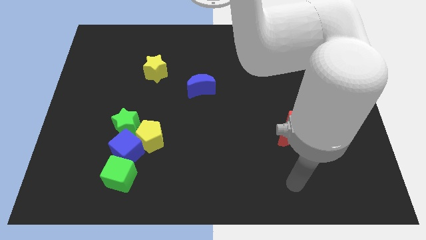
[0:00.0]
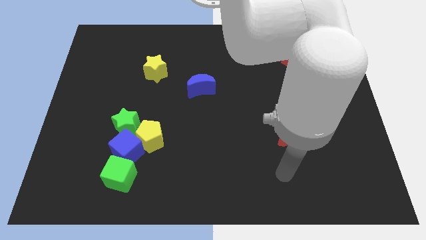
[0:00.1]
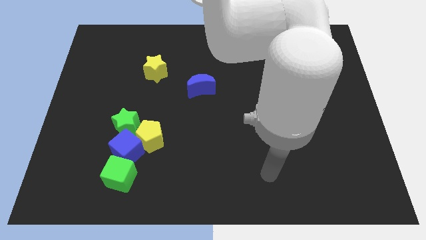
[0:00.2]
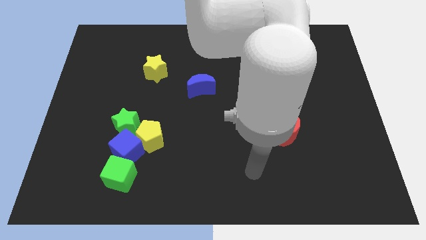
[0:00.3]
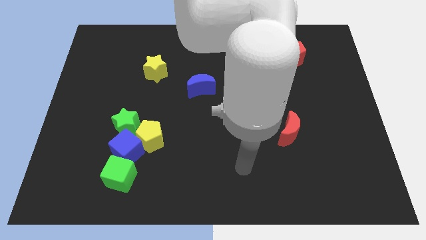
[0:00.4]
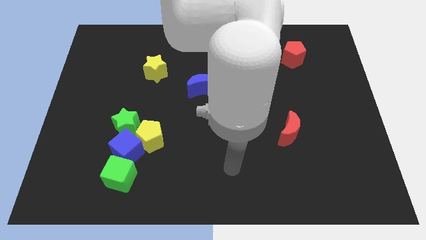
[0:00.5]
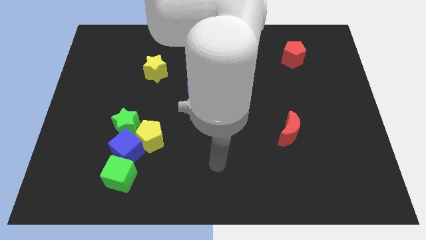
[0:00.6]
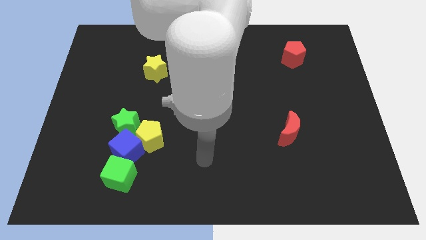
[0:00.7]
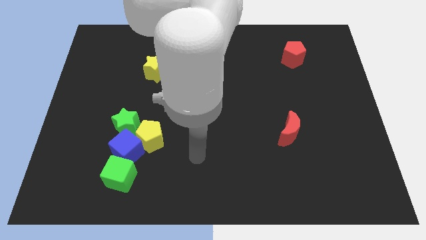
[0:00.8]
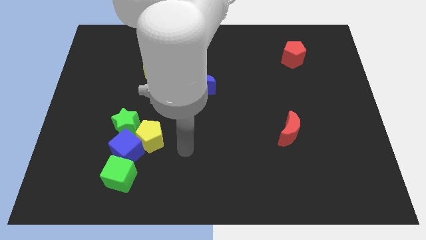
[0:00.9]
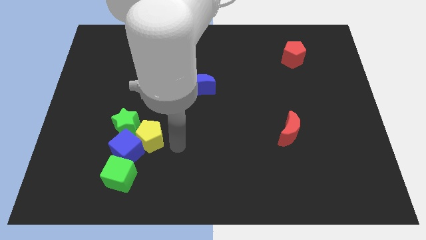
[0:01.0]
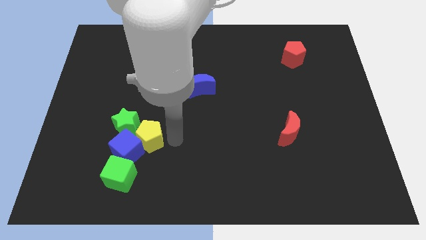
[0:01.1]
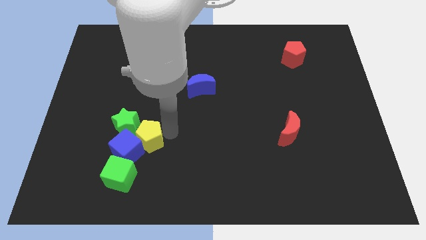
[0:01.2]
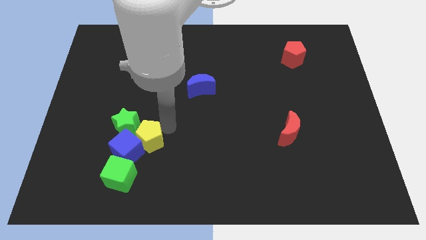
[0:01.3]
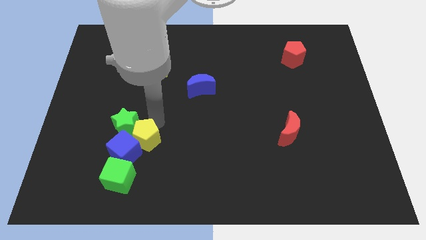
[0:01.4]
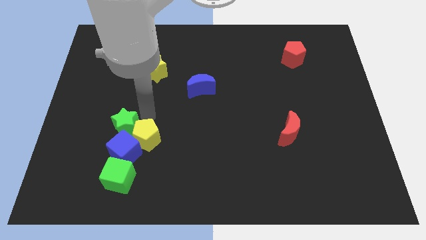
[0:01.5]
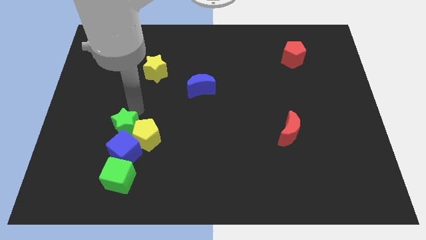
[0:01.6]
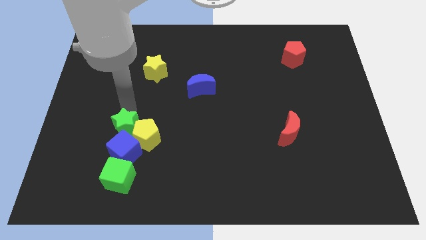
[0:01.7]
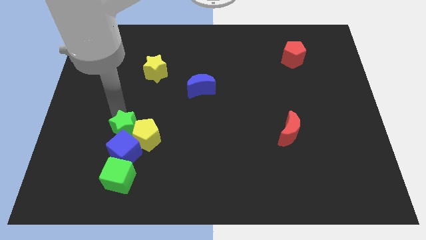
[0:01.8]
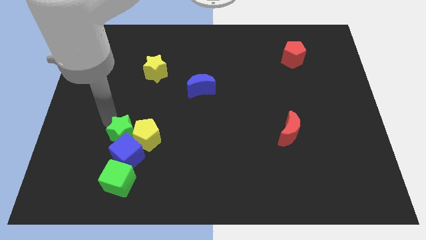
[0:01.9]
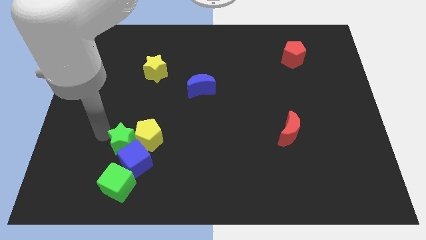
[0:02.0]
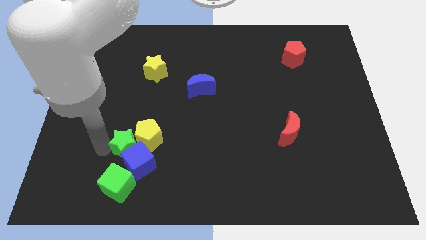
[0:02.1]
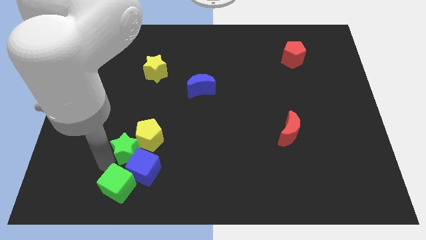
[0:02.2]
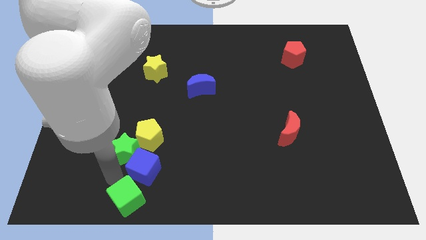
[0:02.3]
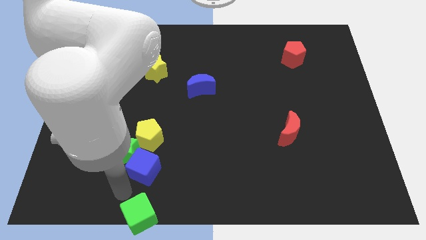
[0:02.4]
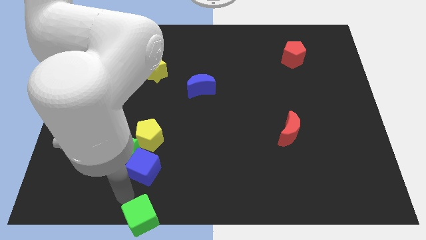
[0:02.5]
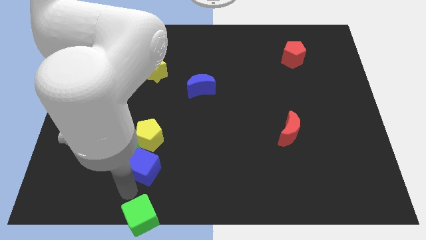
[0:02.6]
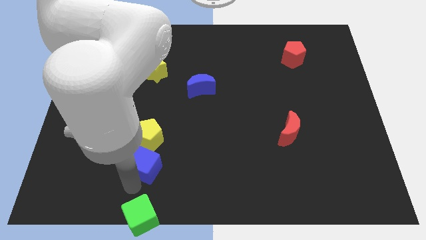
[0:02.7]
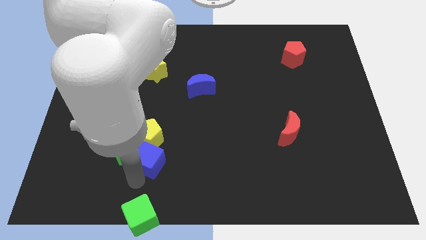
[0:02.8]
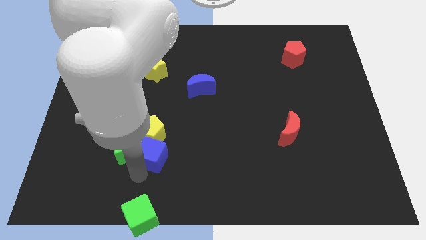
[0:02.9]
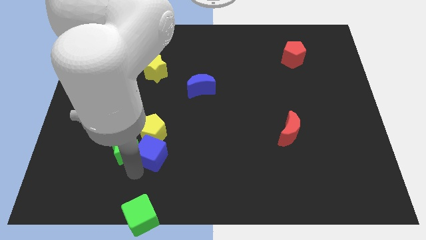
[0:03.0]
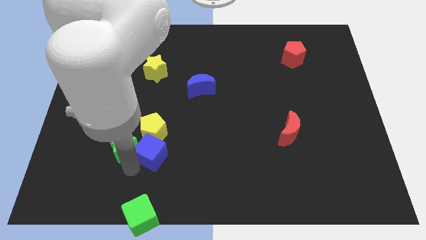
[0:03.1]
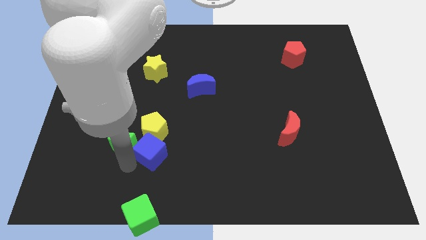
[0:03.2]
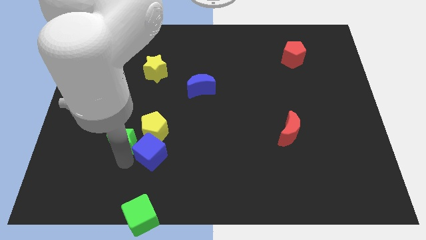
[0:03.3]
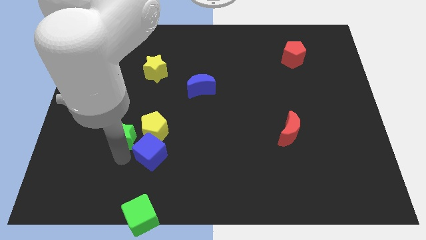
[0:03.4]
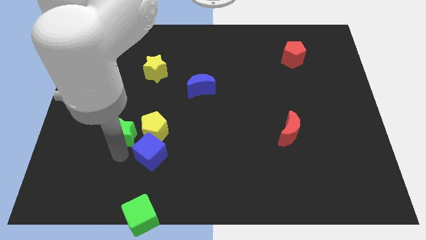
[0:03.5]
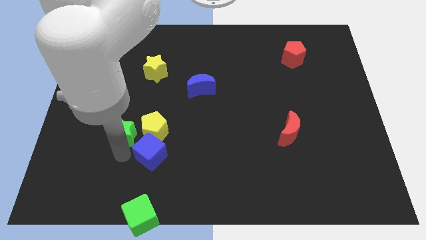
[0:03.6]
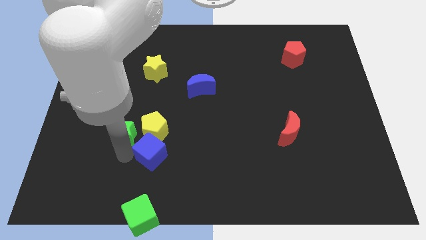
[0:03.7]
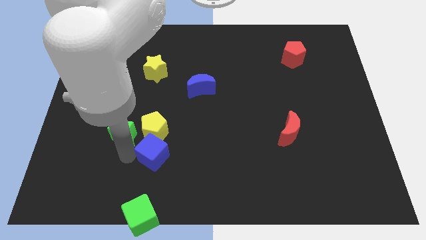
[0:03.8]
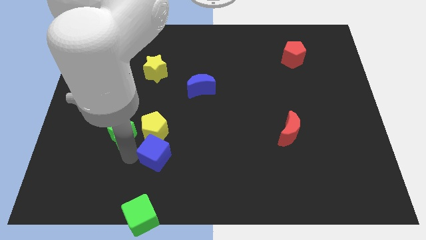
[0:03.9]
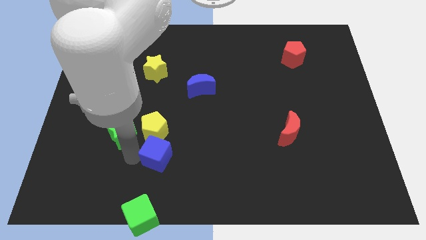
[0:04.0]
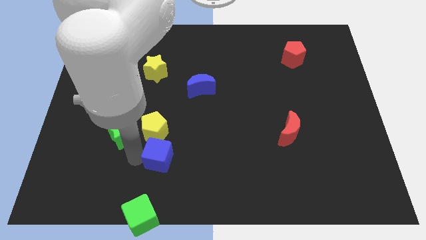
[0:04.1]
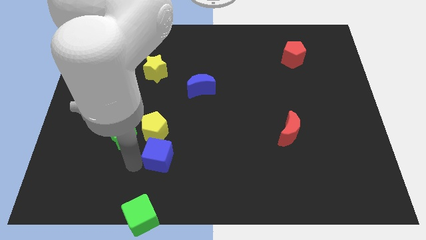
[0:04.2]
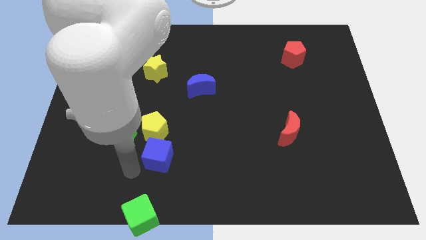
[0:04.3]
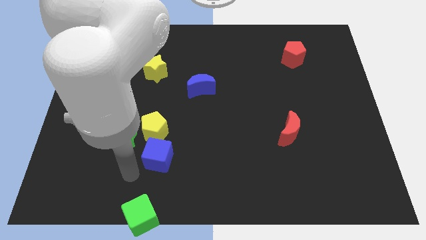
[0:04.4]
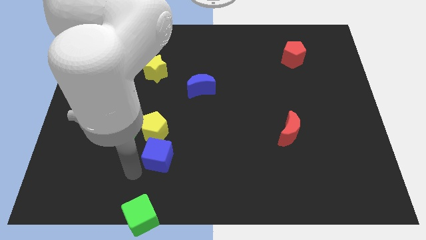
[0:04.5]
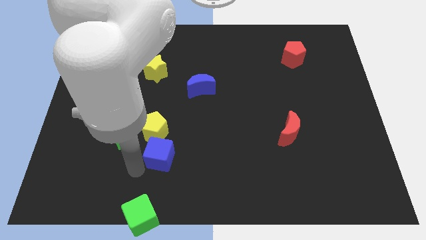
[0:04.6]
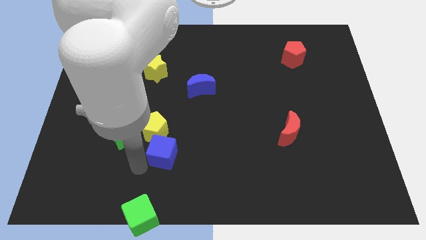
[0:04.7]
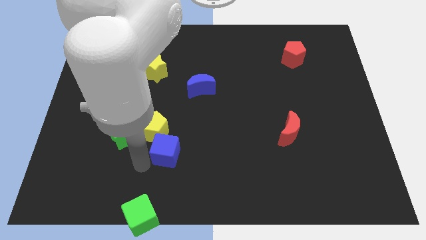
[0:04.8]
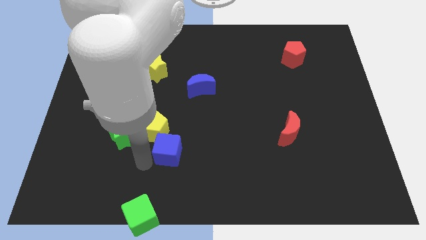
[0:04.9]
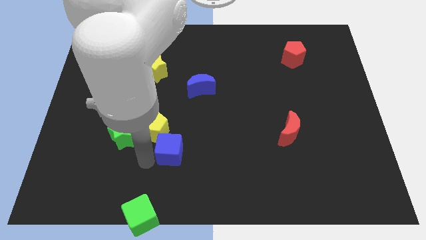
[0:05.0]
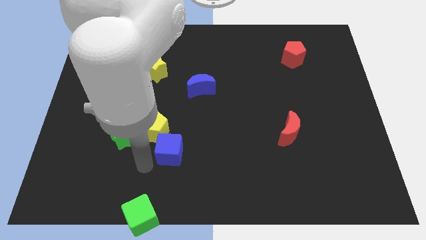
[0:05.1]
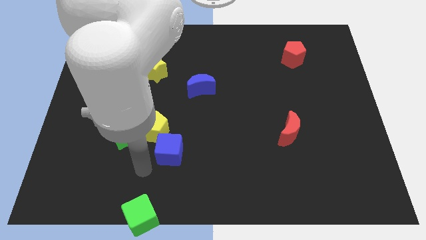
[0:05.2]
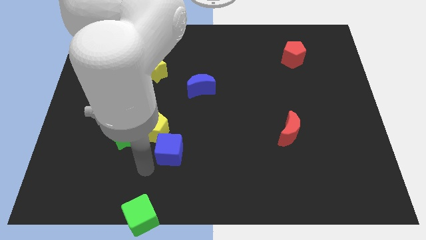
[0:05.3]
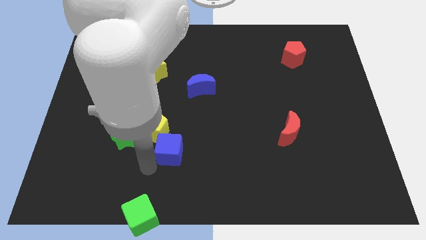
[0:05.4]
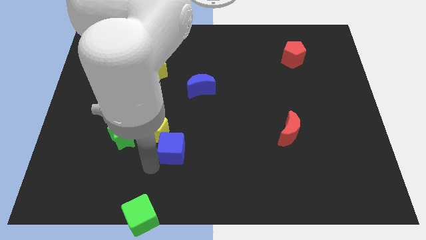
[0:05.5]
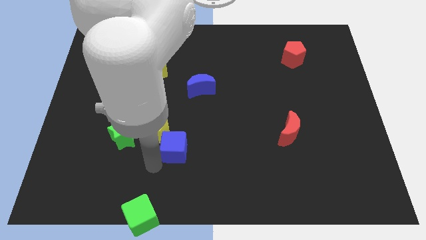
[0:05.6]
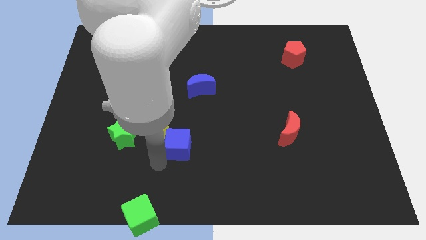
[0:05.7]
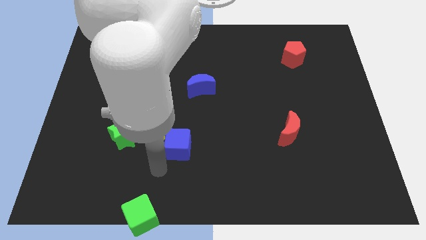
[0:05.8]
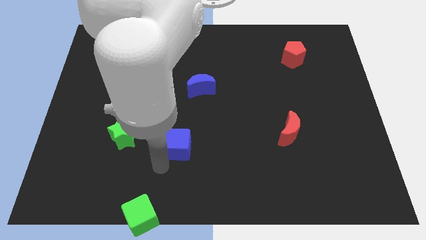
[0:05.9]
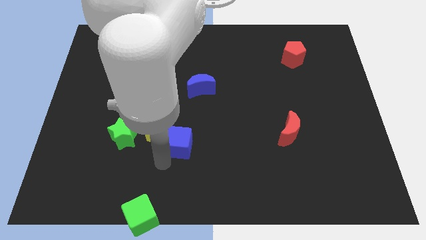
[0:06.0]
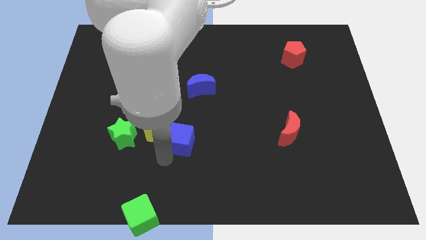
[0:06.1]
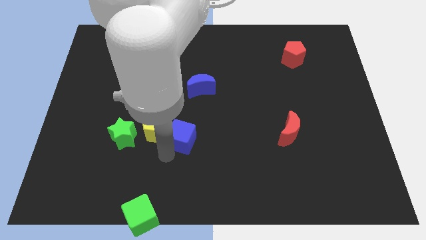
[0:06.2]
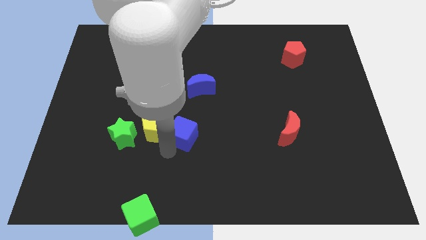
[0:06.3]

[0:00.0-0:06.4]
move the blue cube to the center of the board

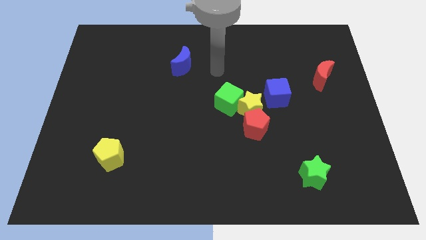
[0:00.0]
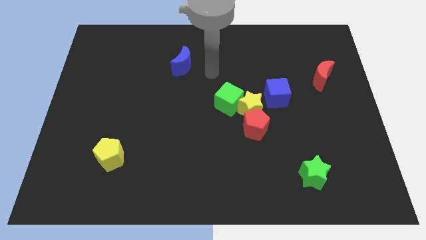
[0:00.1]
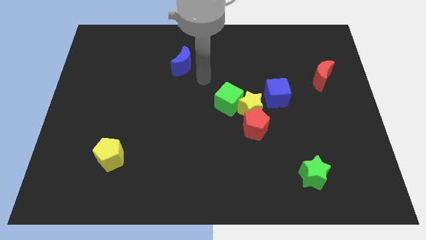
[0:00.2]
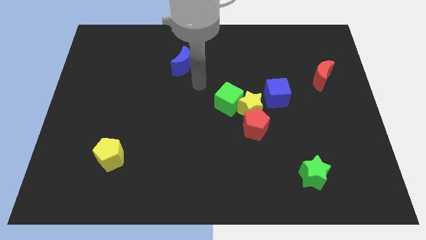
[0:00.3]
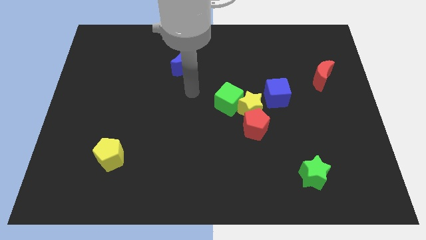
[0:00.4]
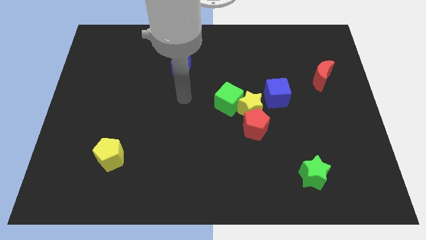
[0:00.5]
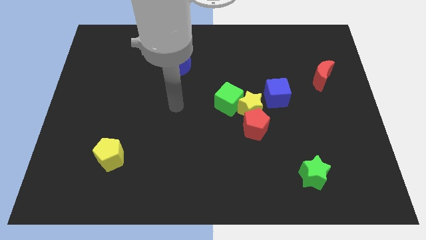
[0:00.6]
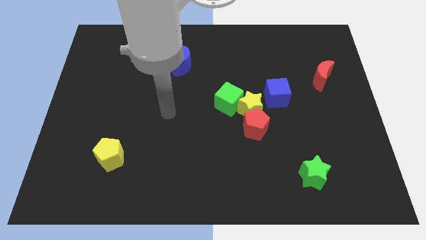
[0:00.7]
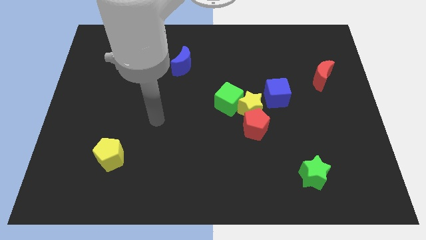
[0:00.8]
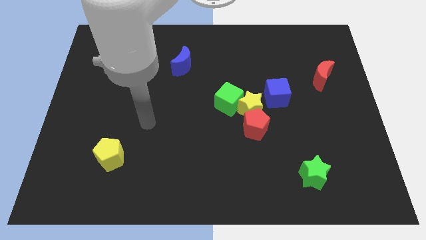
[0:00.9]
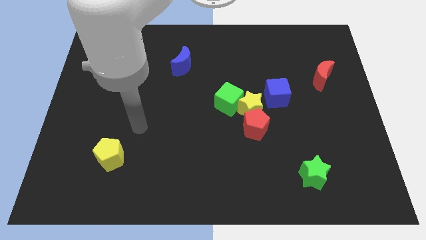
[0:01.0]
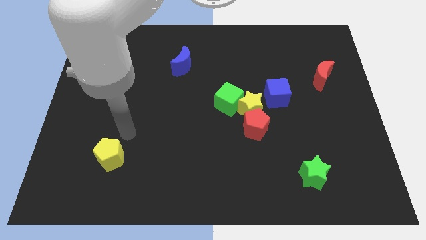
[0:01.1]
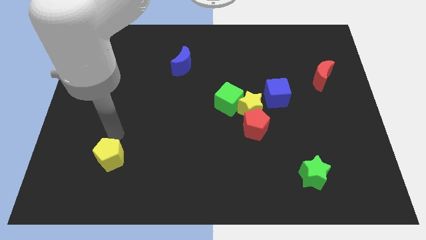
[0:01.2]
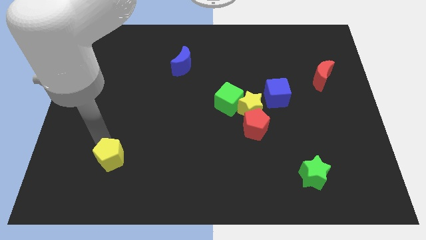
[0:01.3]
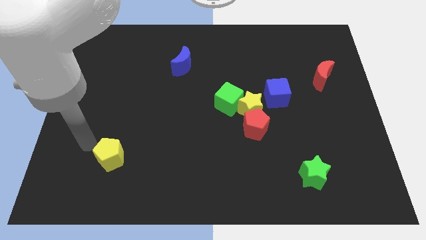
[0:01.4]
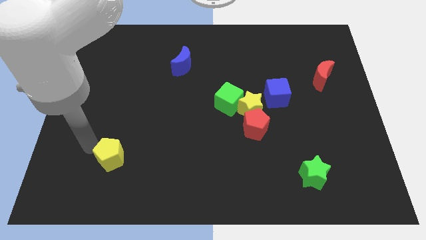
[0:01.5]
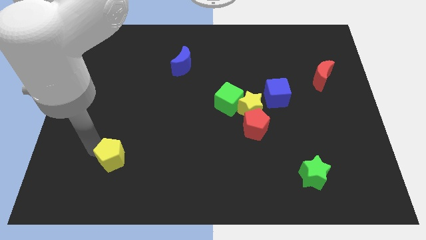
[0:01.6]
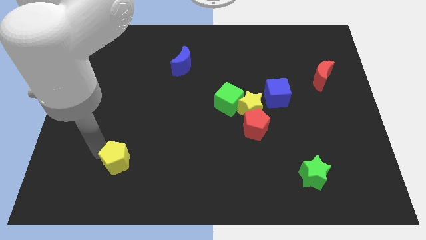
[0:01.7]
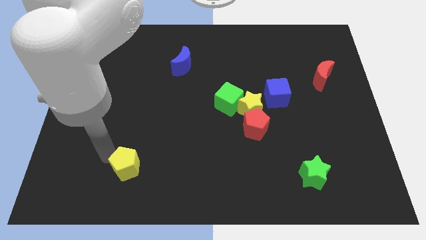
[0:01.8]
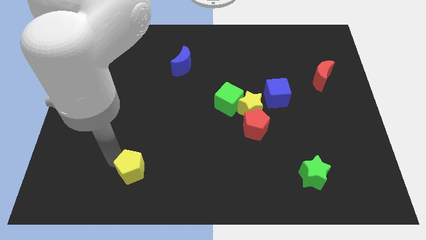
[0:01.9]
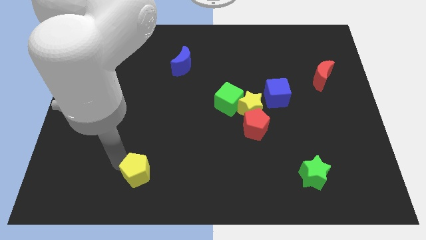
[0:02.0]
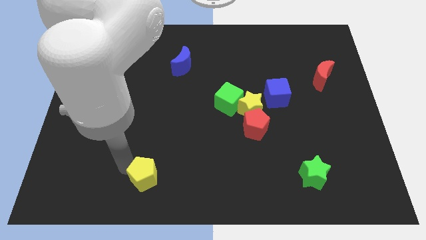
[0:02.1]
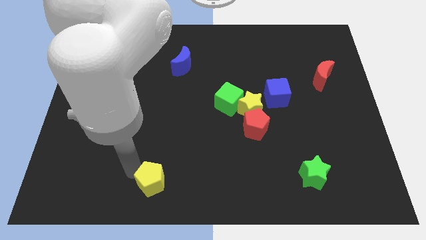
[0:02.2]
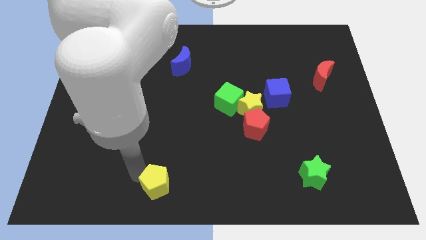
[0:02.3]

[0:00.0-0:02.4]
move the yellow pentagon to the bottom side
